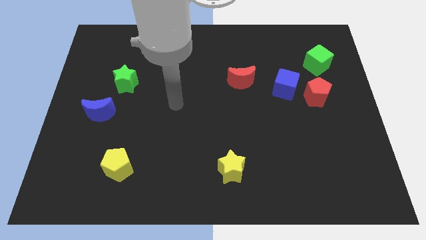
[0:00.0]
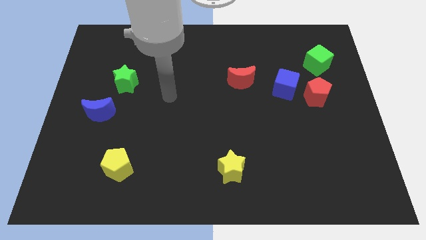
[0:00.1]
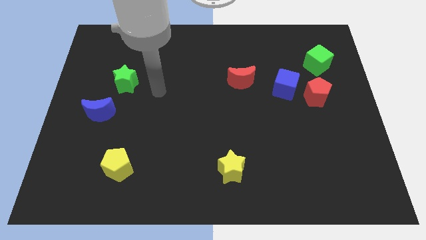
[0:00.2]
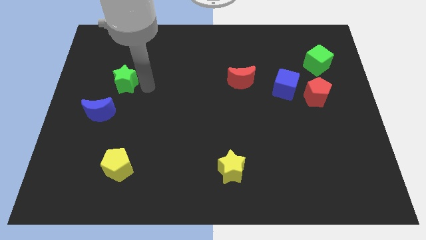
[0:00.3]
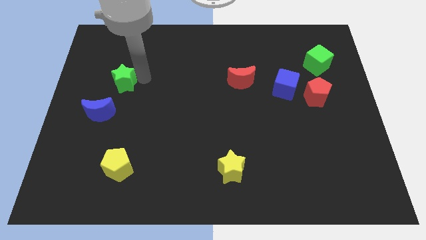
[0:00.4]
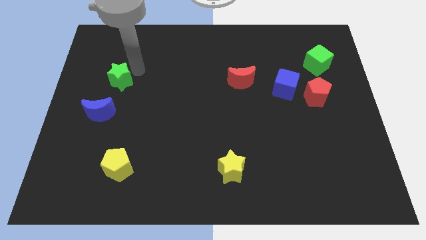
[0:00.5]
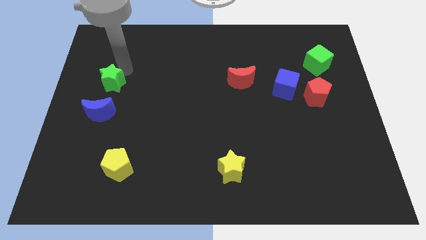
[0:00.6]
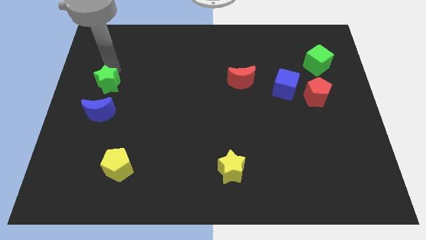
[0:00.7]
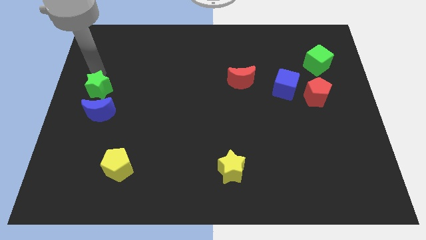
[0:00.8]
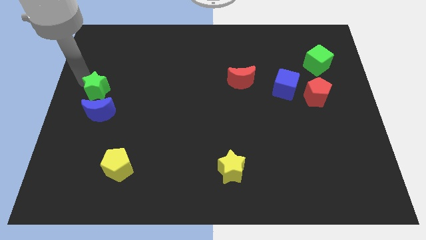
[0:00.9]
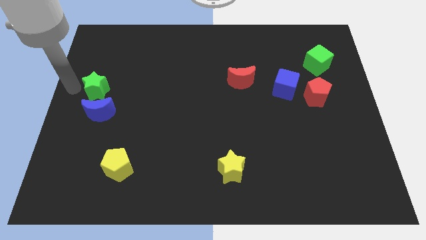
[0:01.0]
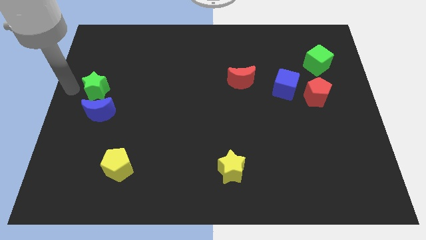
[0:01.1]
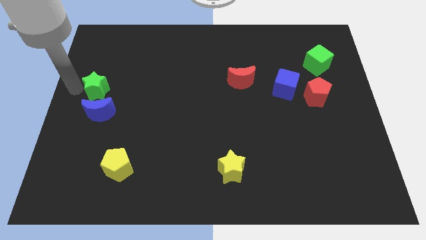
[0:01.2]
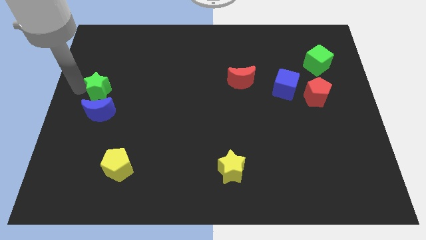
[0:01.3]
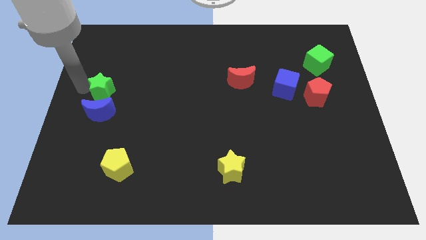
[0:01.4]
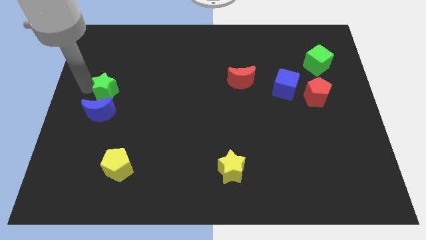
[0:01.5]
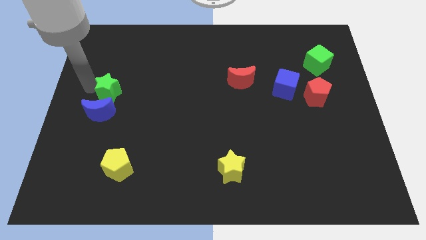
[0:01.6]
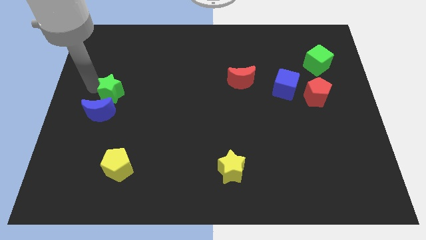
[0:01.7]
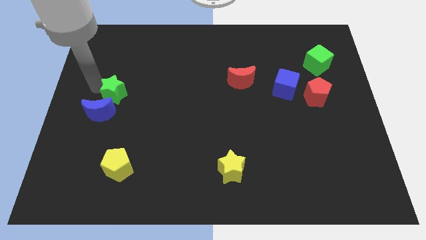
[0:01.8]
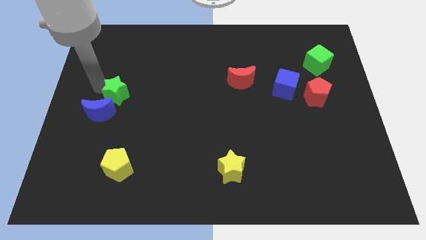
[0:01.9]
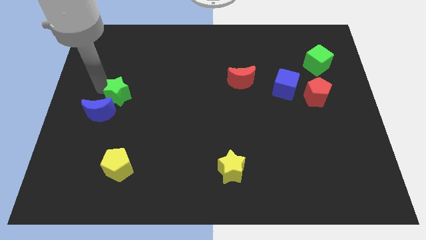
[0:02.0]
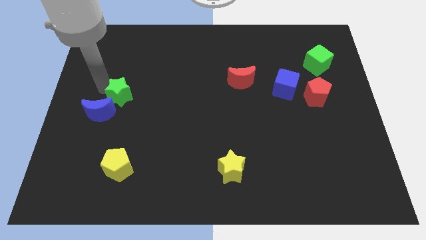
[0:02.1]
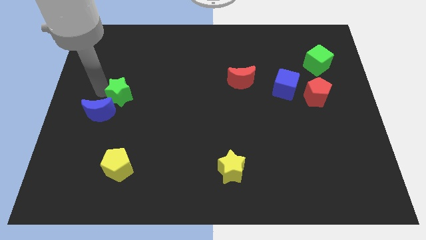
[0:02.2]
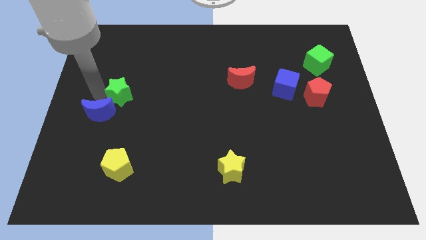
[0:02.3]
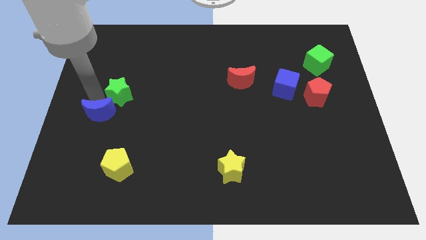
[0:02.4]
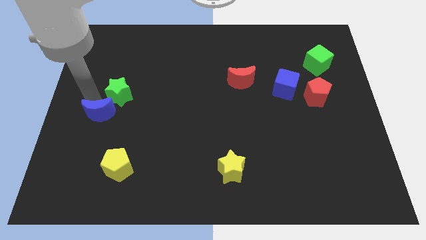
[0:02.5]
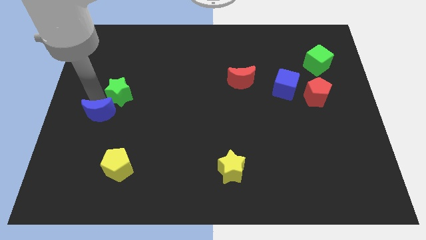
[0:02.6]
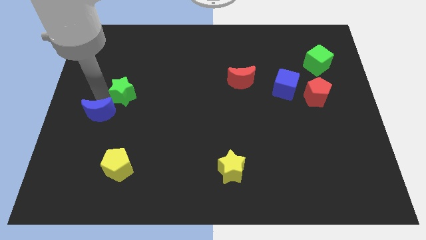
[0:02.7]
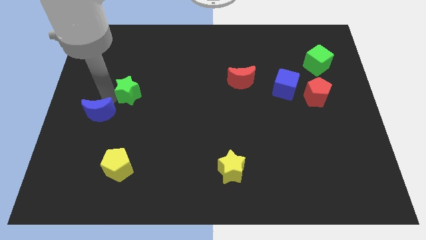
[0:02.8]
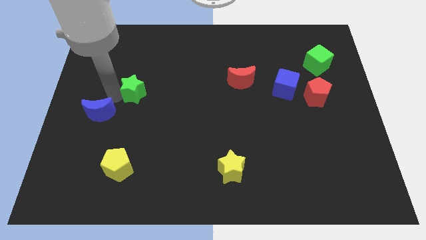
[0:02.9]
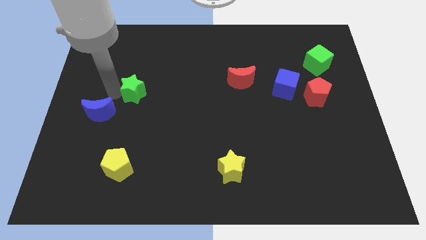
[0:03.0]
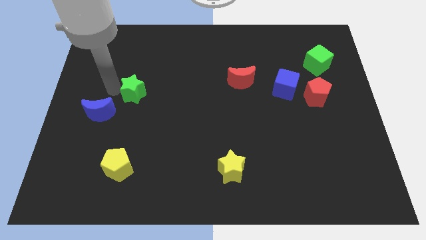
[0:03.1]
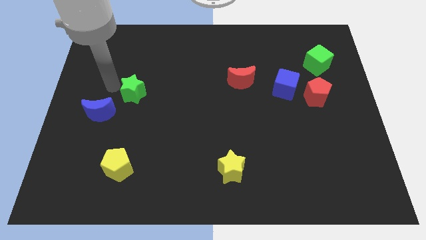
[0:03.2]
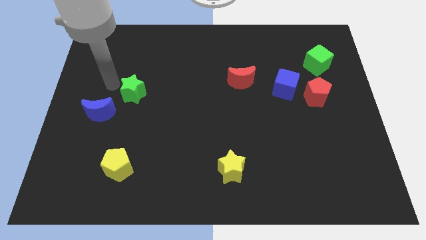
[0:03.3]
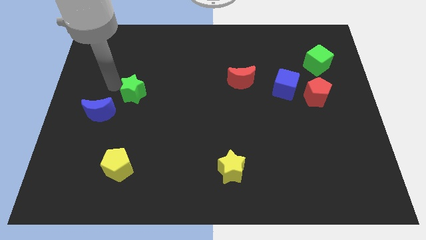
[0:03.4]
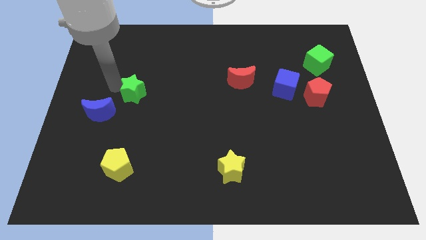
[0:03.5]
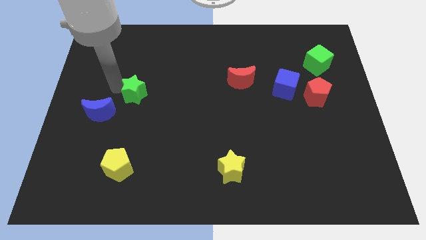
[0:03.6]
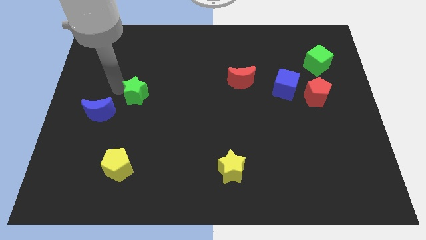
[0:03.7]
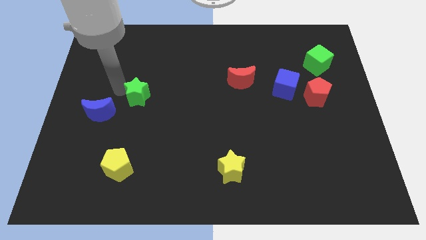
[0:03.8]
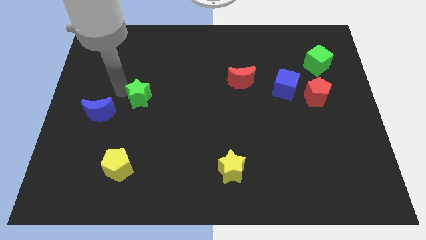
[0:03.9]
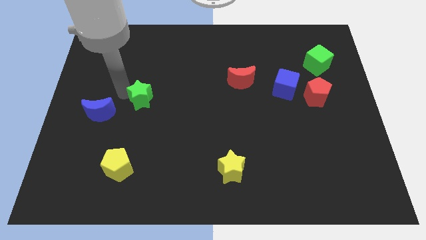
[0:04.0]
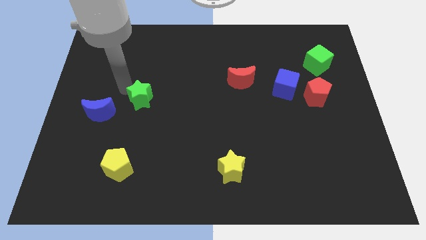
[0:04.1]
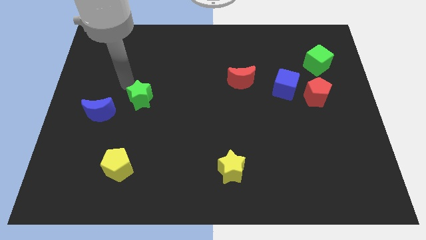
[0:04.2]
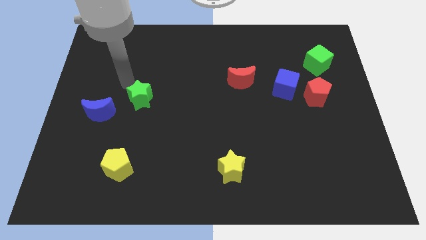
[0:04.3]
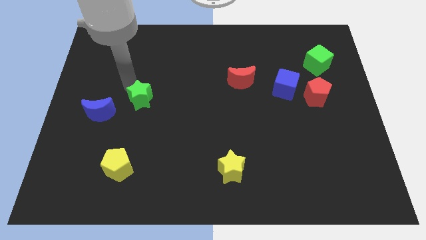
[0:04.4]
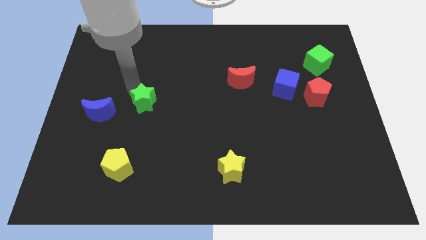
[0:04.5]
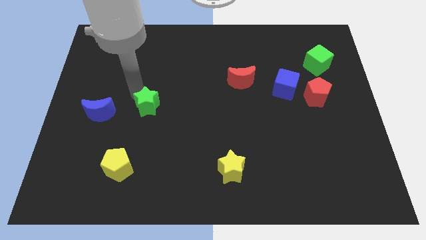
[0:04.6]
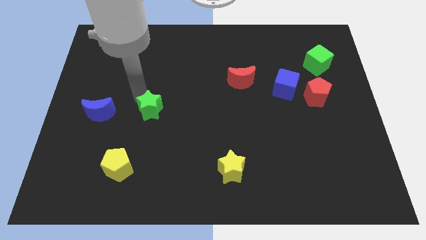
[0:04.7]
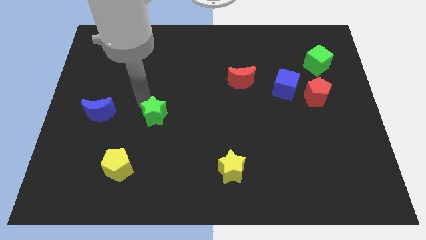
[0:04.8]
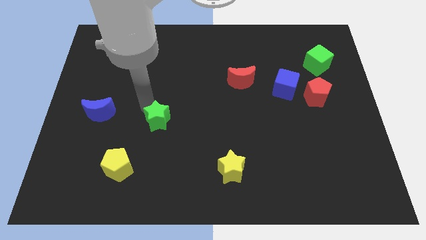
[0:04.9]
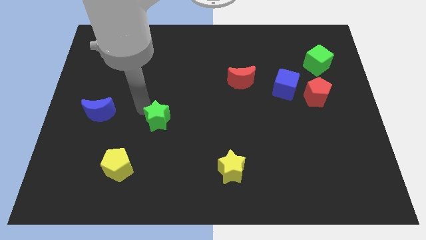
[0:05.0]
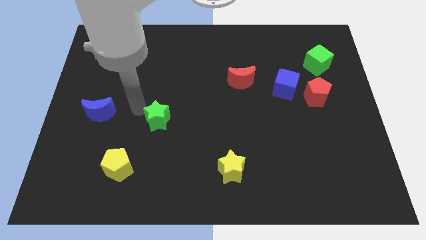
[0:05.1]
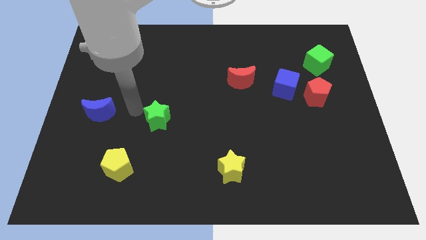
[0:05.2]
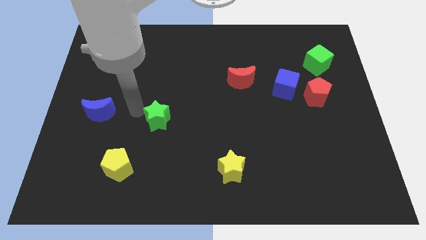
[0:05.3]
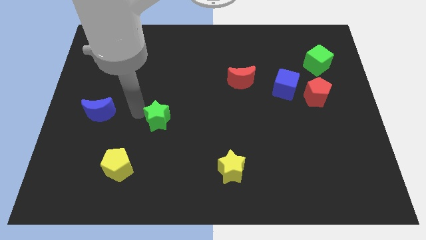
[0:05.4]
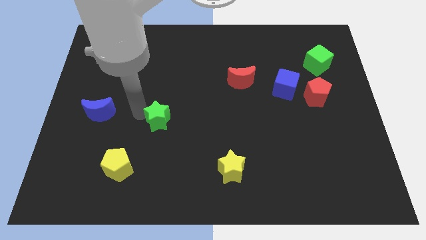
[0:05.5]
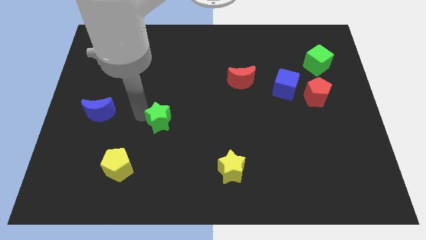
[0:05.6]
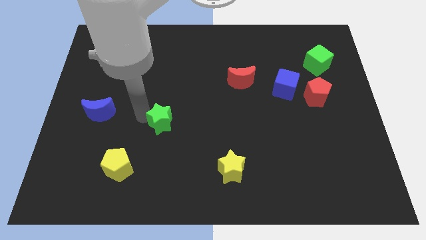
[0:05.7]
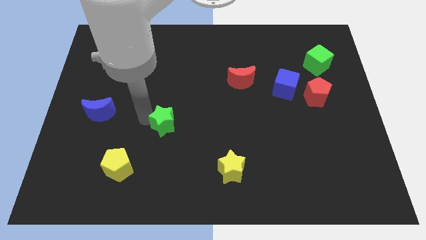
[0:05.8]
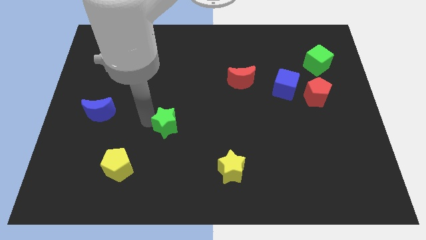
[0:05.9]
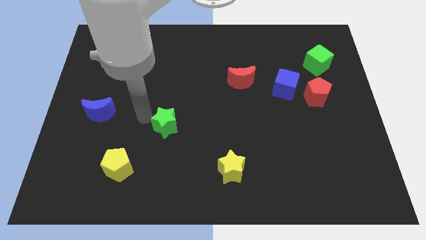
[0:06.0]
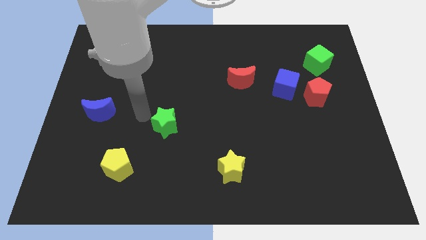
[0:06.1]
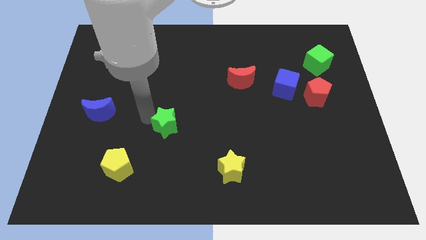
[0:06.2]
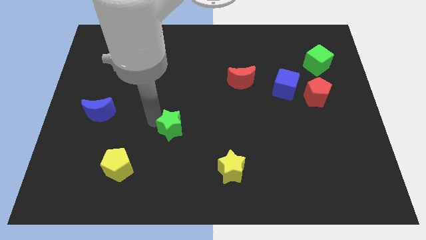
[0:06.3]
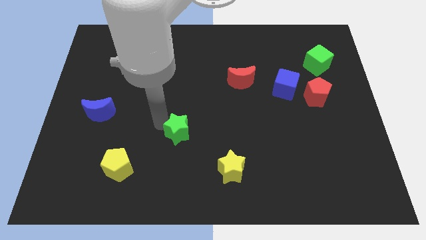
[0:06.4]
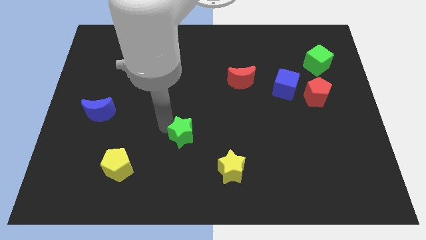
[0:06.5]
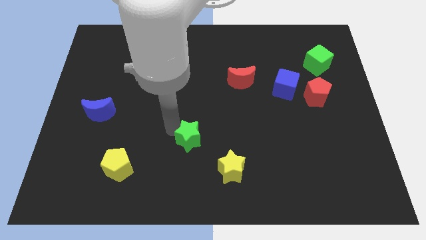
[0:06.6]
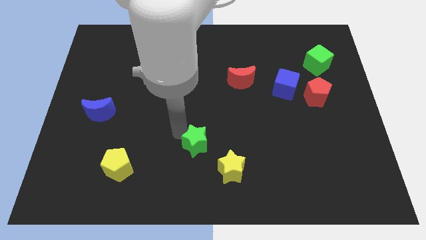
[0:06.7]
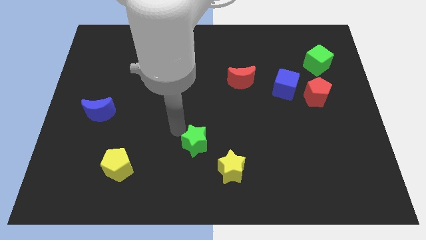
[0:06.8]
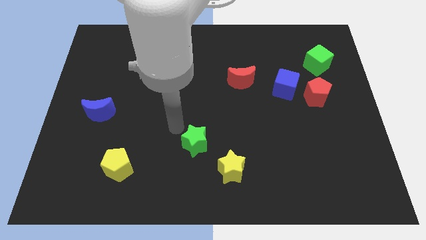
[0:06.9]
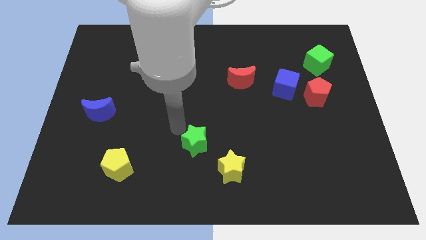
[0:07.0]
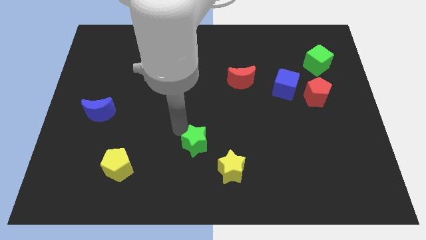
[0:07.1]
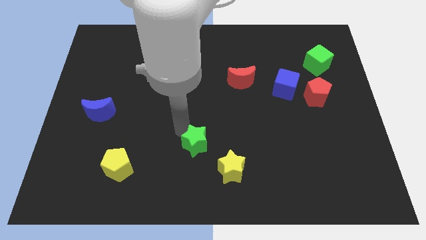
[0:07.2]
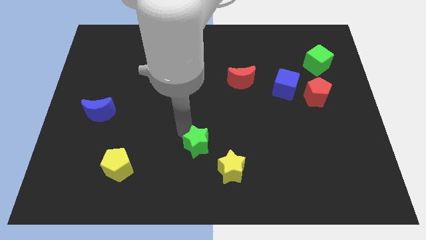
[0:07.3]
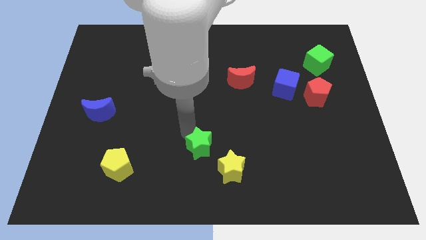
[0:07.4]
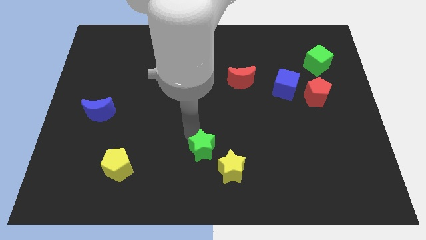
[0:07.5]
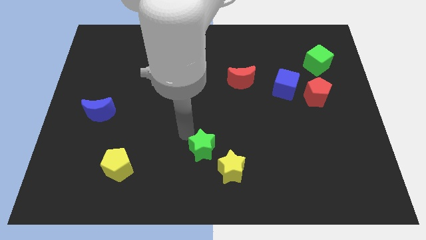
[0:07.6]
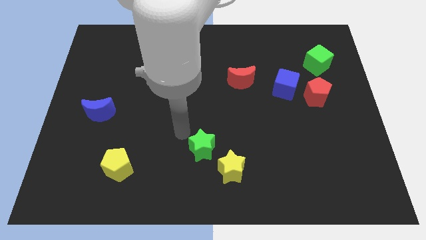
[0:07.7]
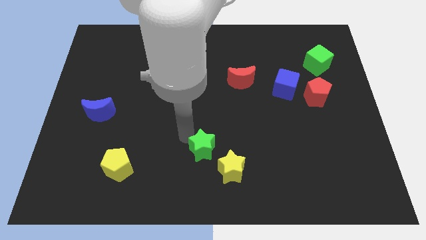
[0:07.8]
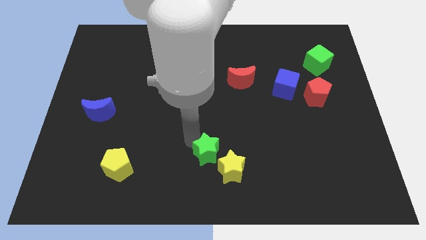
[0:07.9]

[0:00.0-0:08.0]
put the green star close to the yellow star
